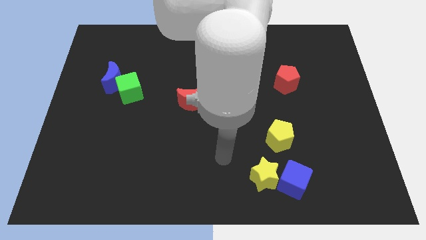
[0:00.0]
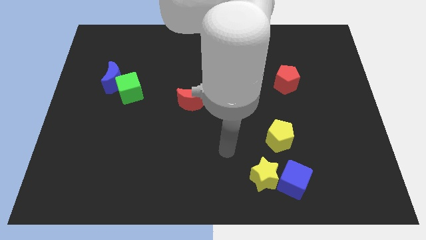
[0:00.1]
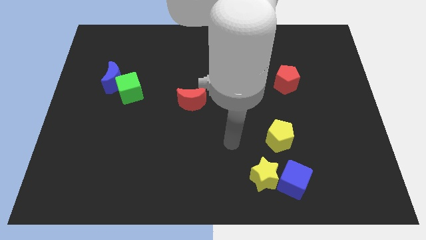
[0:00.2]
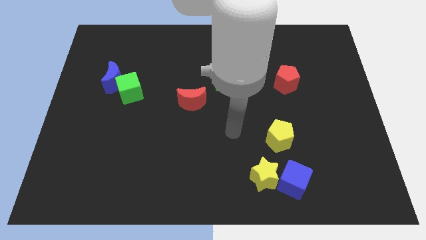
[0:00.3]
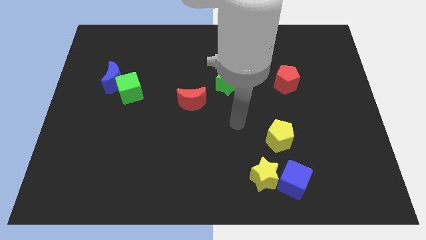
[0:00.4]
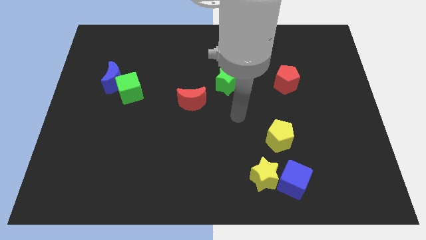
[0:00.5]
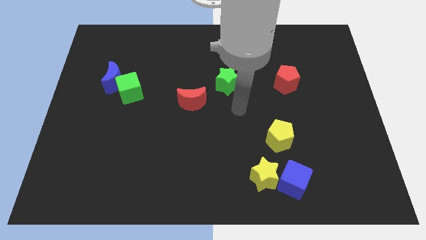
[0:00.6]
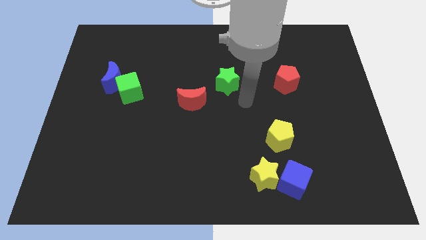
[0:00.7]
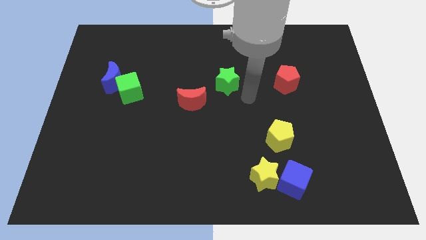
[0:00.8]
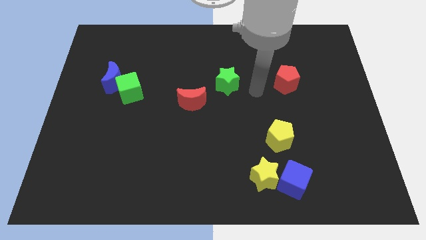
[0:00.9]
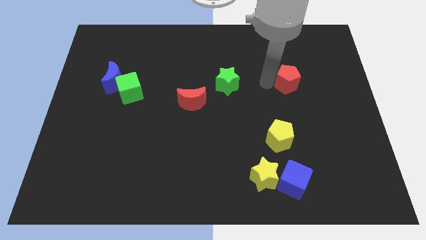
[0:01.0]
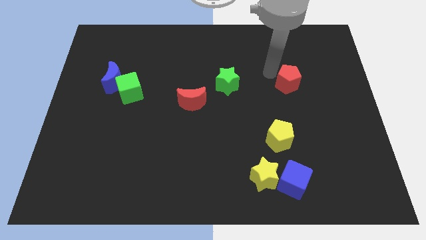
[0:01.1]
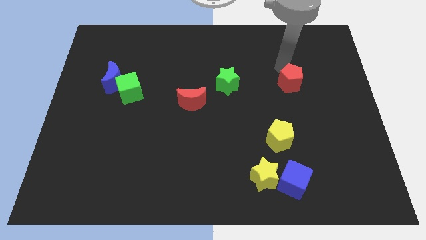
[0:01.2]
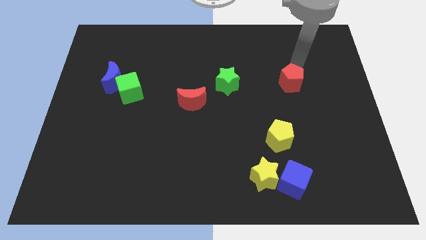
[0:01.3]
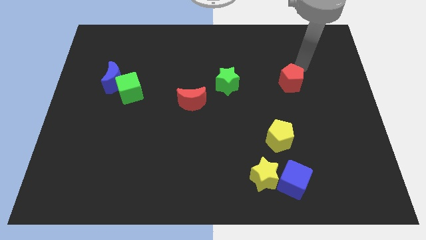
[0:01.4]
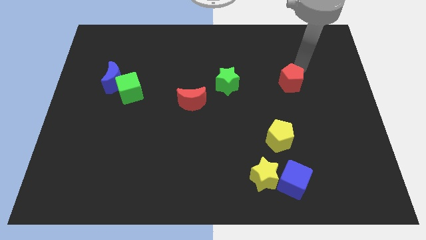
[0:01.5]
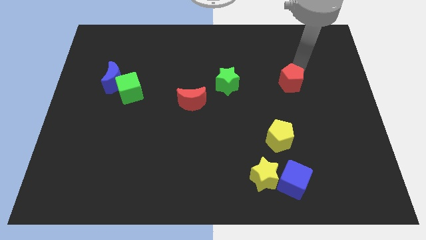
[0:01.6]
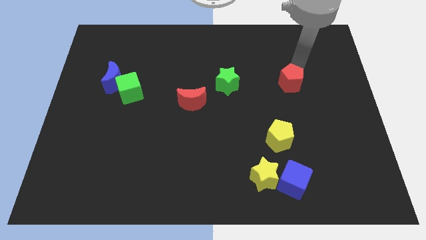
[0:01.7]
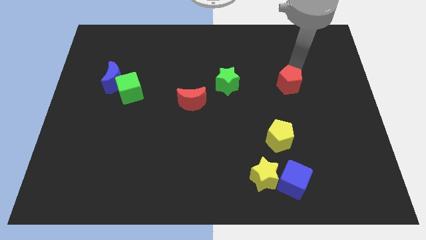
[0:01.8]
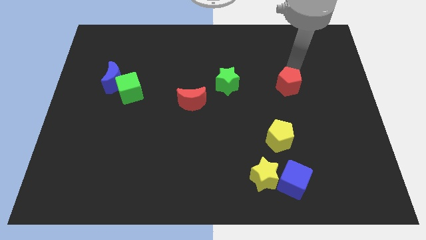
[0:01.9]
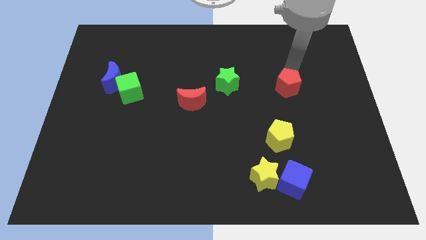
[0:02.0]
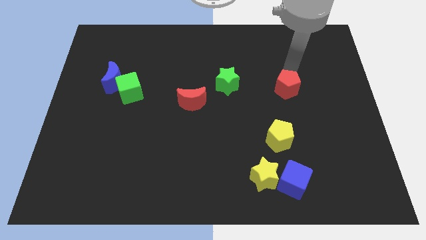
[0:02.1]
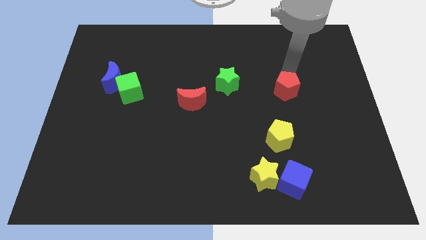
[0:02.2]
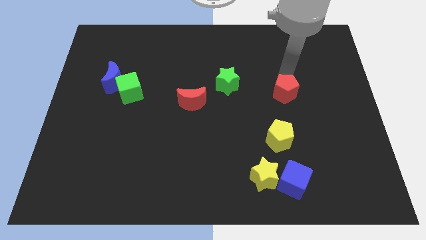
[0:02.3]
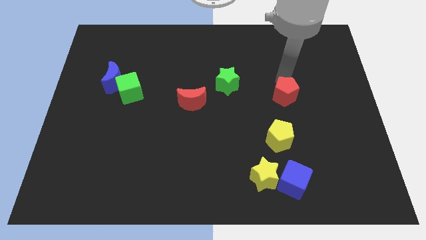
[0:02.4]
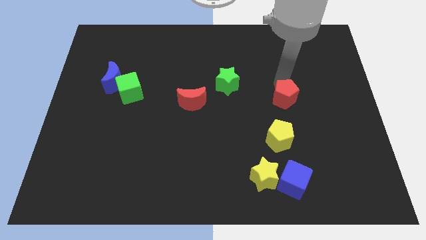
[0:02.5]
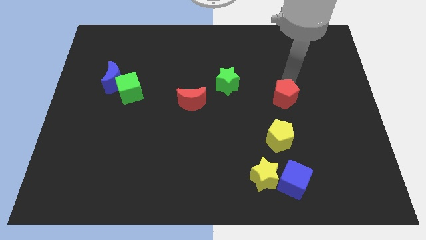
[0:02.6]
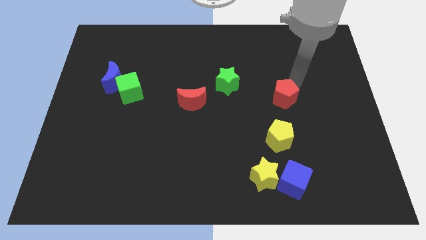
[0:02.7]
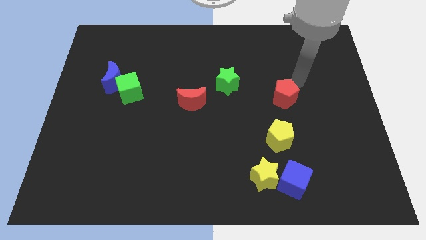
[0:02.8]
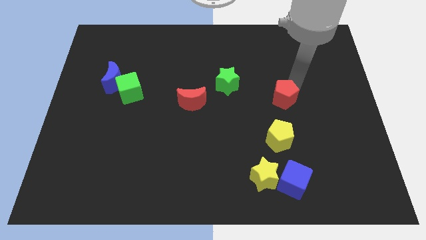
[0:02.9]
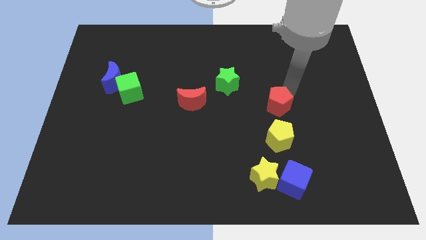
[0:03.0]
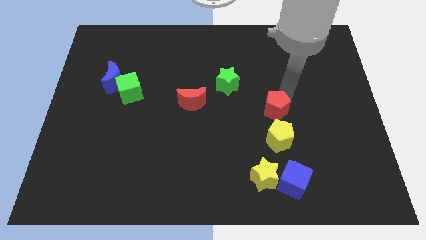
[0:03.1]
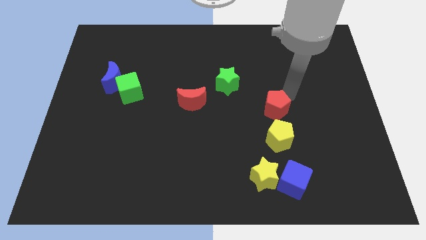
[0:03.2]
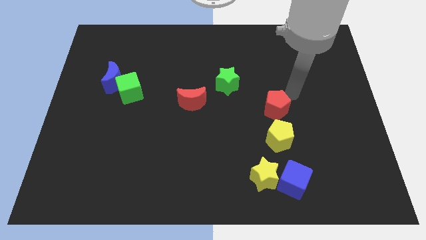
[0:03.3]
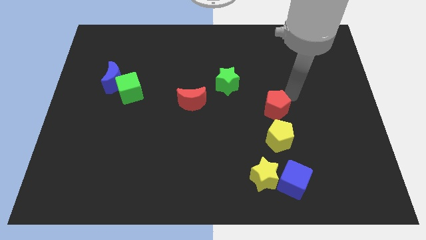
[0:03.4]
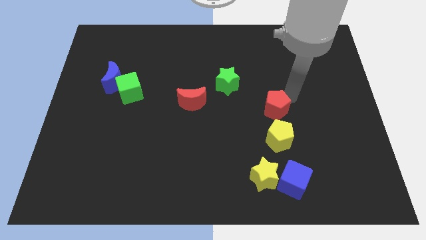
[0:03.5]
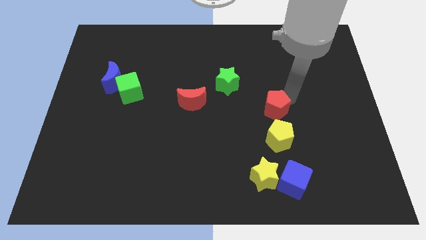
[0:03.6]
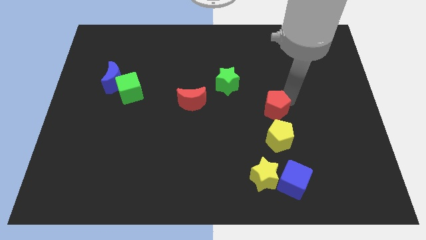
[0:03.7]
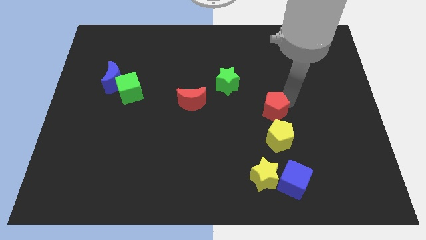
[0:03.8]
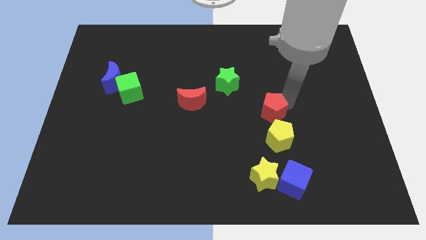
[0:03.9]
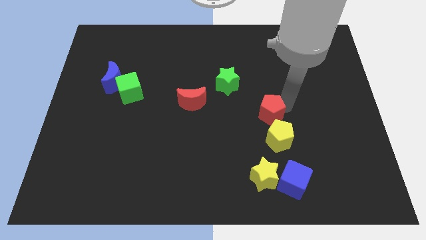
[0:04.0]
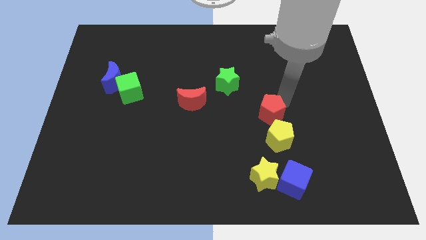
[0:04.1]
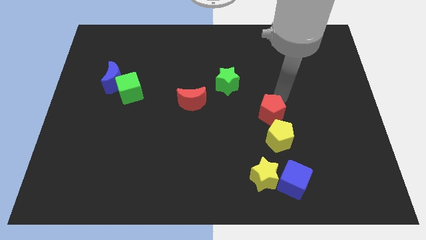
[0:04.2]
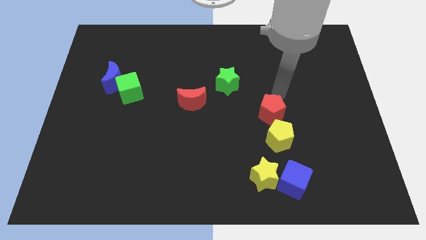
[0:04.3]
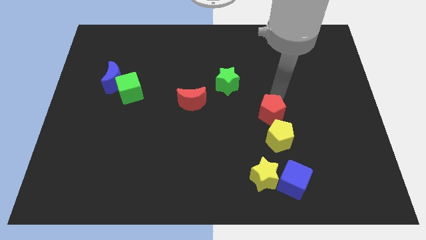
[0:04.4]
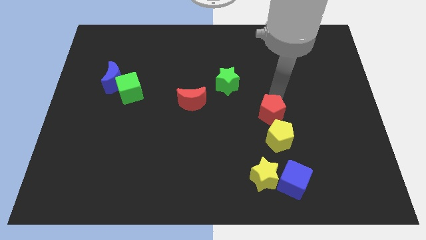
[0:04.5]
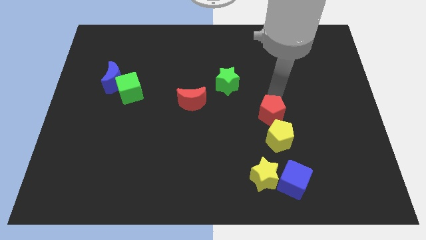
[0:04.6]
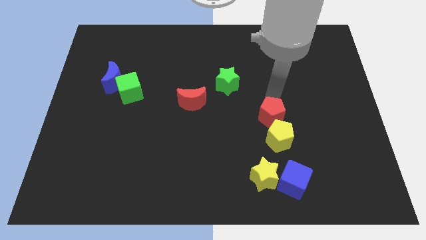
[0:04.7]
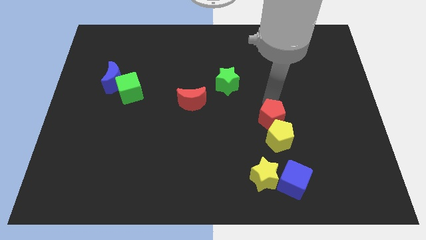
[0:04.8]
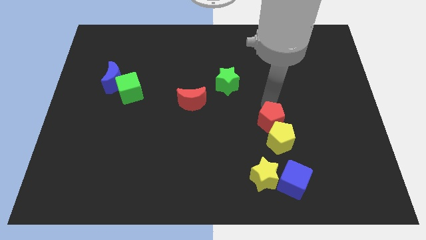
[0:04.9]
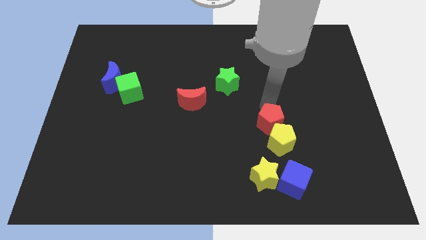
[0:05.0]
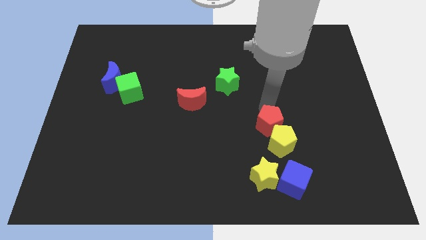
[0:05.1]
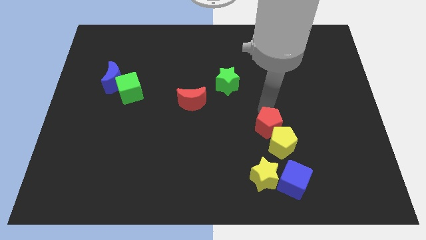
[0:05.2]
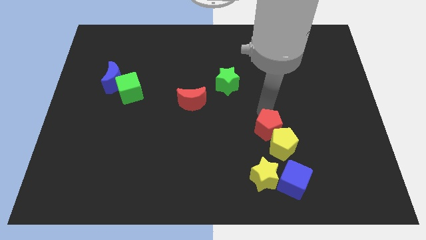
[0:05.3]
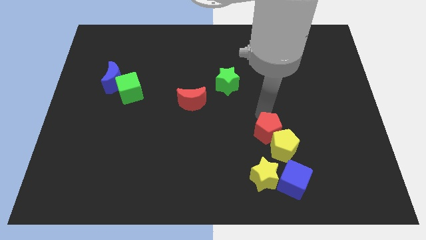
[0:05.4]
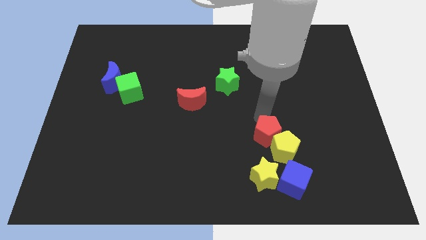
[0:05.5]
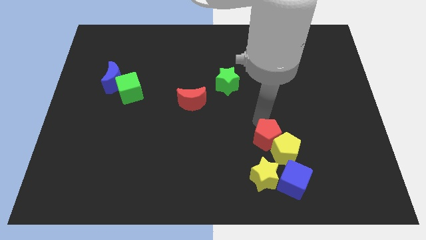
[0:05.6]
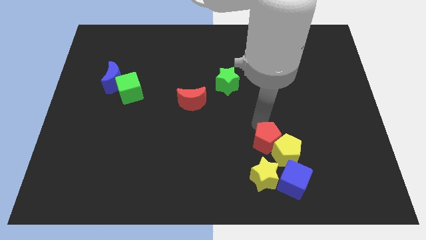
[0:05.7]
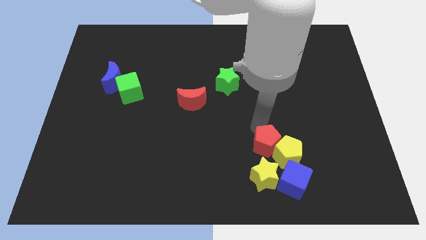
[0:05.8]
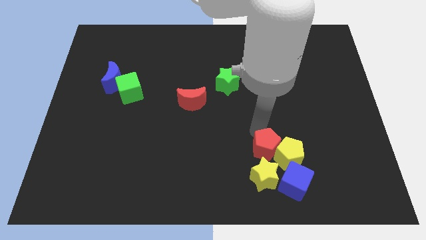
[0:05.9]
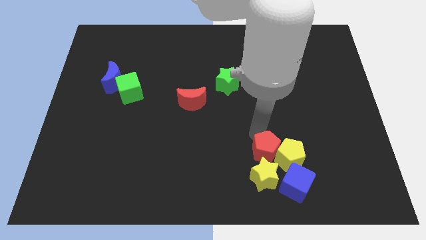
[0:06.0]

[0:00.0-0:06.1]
put the red pentagon diagonally down and to the left of the yellow pentagon
